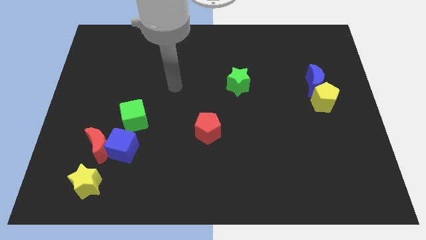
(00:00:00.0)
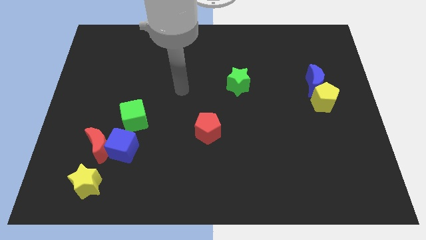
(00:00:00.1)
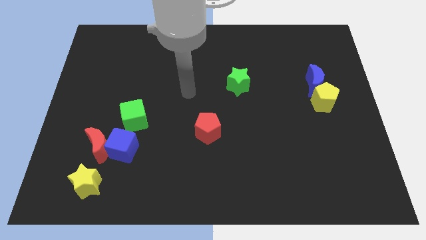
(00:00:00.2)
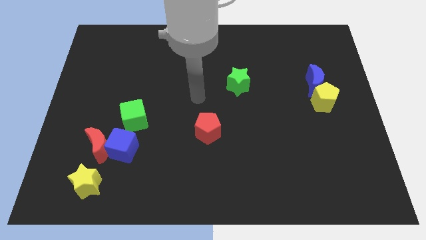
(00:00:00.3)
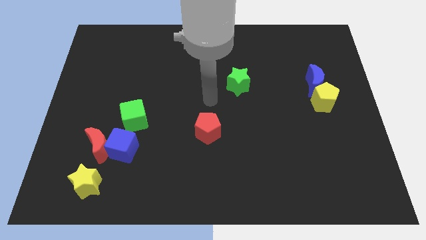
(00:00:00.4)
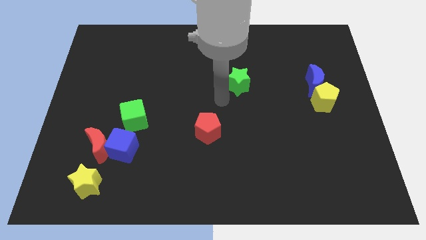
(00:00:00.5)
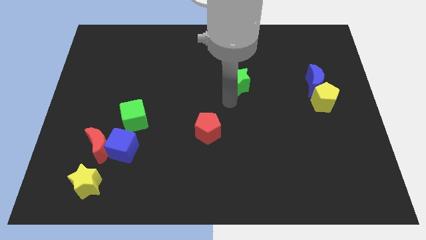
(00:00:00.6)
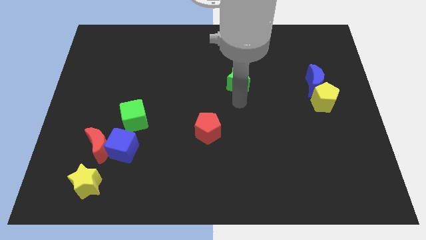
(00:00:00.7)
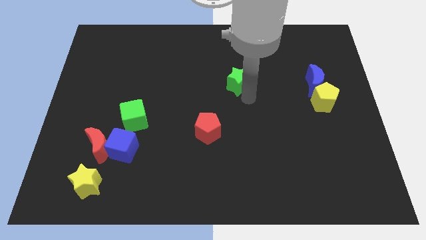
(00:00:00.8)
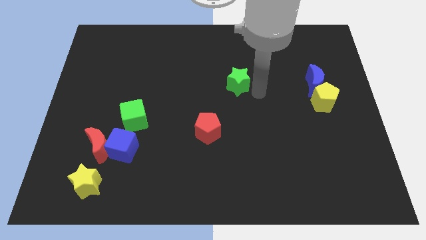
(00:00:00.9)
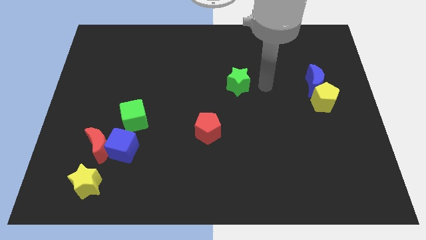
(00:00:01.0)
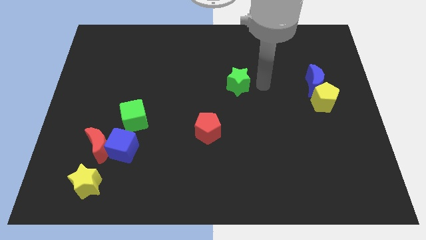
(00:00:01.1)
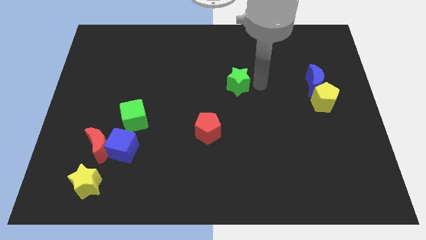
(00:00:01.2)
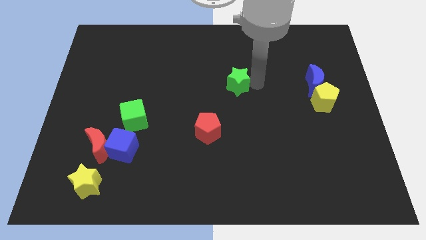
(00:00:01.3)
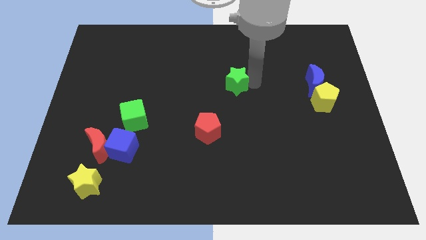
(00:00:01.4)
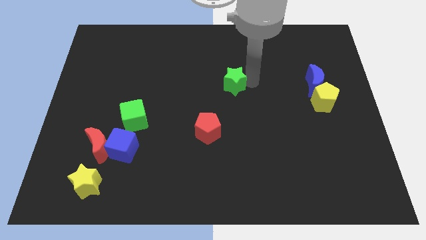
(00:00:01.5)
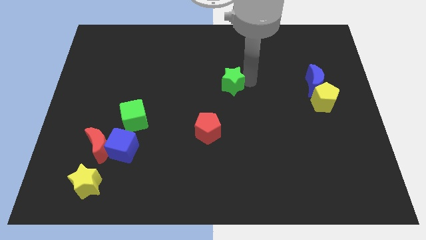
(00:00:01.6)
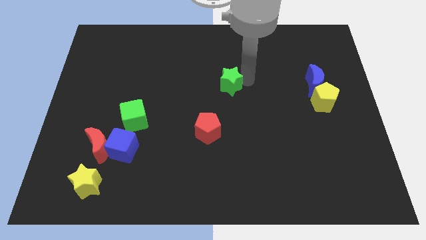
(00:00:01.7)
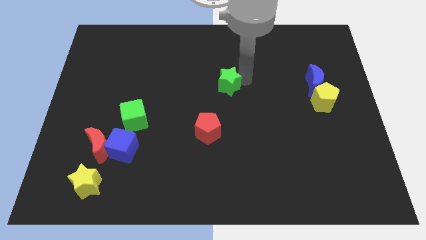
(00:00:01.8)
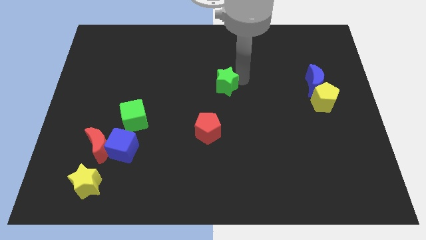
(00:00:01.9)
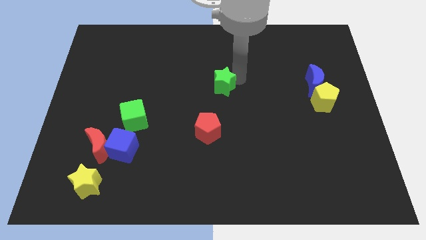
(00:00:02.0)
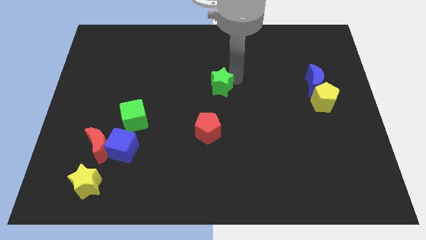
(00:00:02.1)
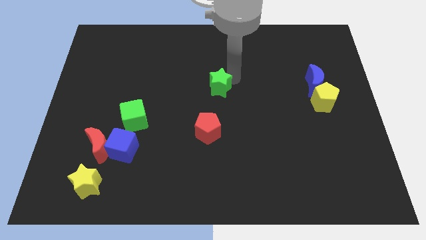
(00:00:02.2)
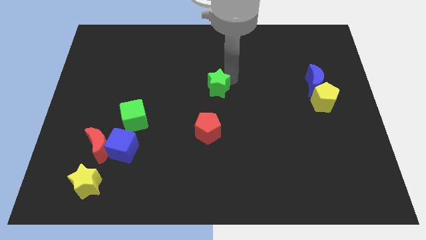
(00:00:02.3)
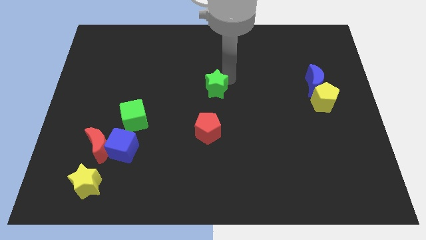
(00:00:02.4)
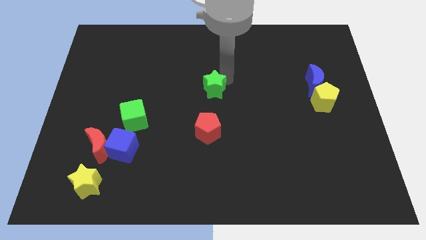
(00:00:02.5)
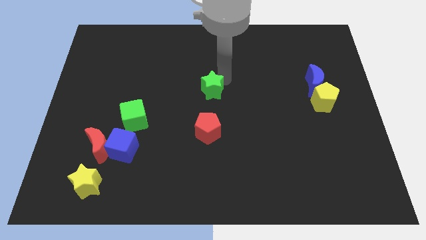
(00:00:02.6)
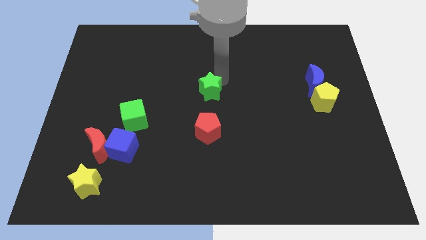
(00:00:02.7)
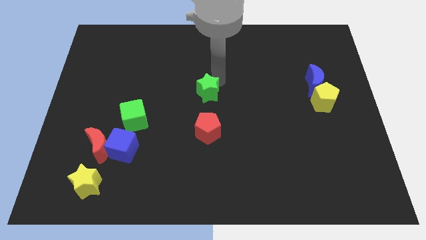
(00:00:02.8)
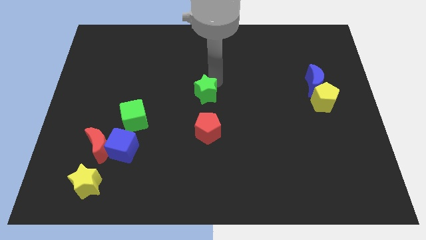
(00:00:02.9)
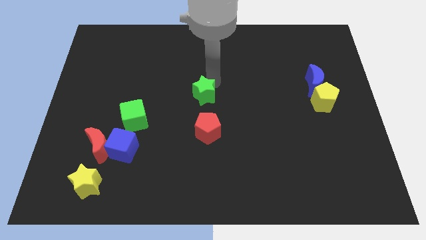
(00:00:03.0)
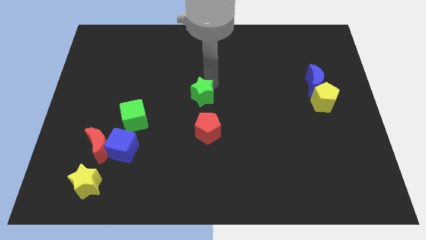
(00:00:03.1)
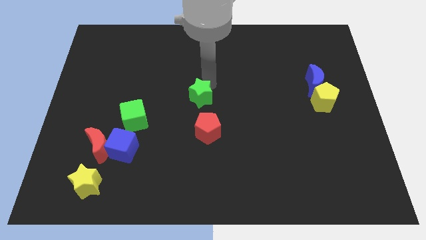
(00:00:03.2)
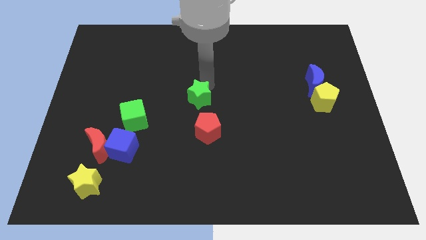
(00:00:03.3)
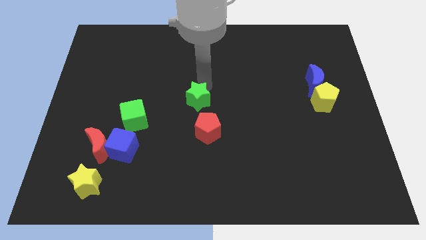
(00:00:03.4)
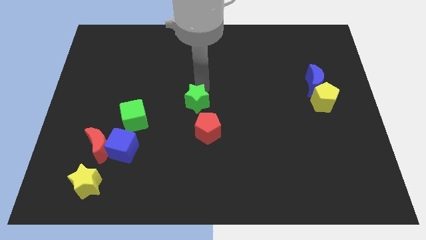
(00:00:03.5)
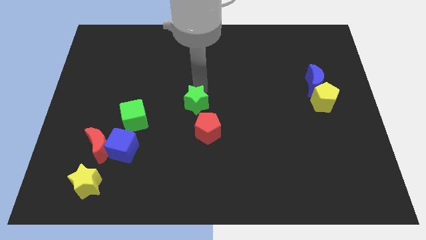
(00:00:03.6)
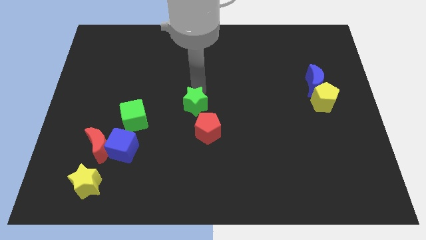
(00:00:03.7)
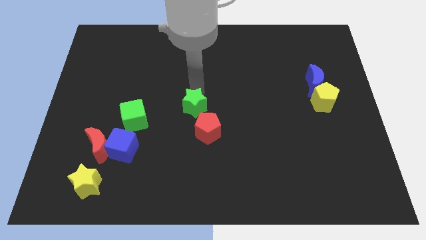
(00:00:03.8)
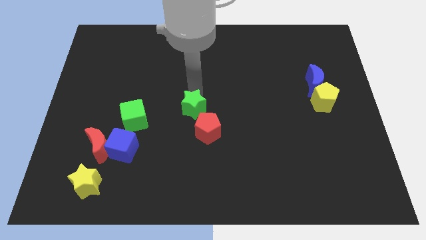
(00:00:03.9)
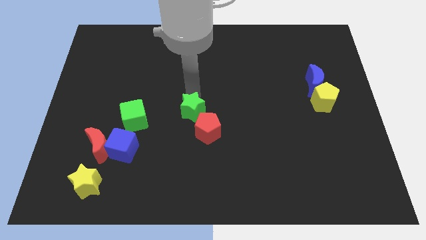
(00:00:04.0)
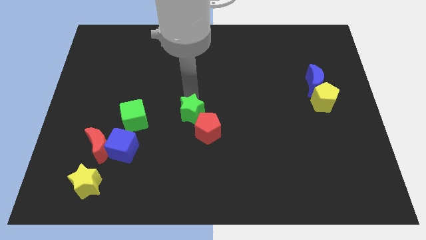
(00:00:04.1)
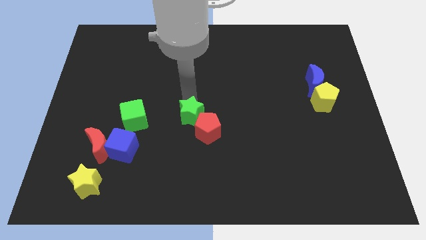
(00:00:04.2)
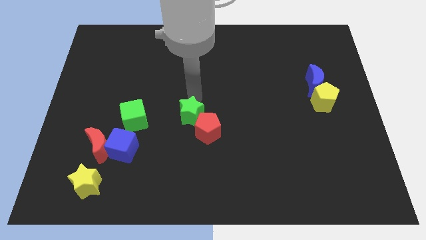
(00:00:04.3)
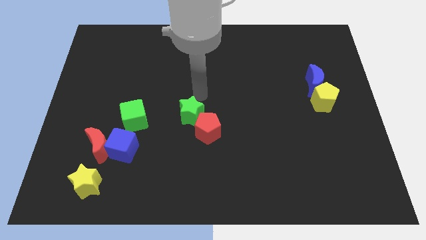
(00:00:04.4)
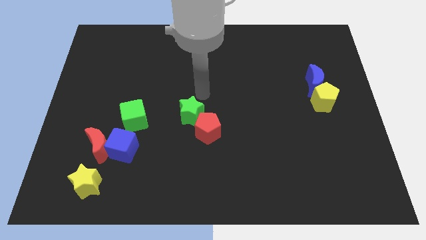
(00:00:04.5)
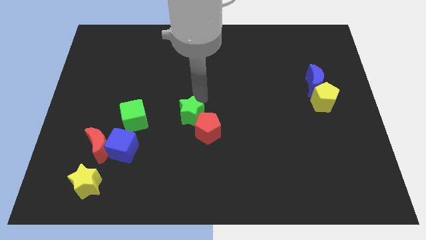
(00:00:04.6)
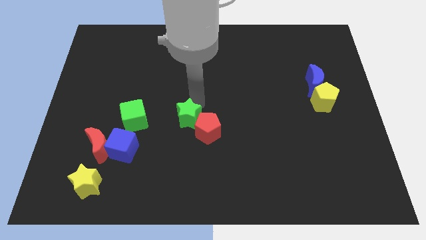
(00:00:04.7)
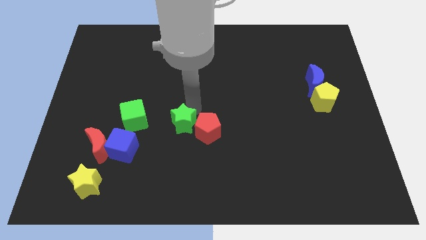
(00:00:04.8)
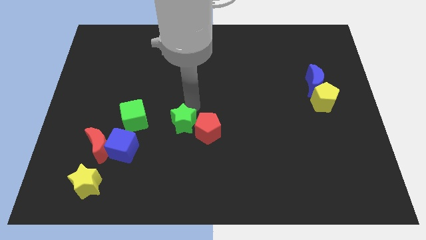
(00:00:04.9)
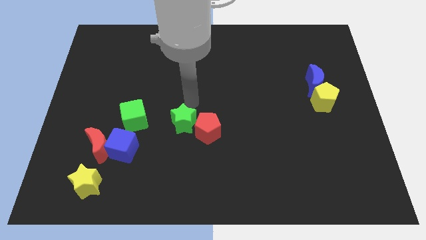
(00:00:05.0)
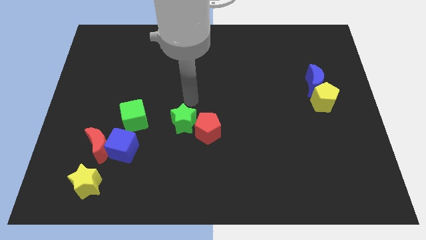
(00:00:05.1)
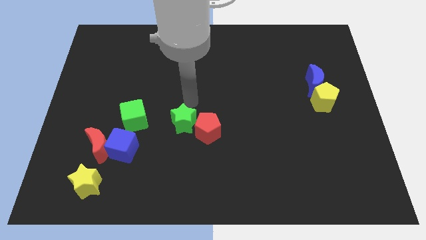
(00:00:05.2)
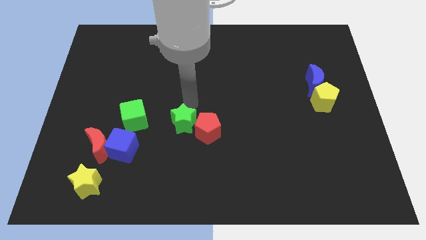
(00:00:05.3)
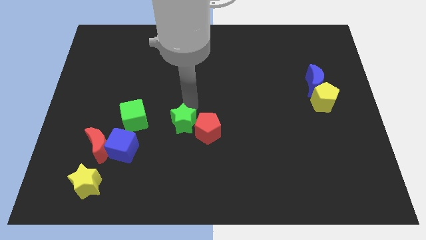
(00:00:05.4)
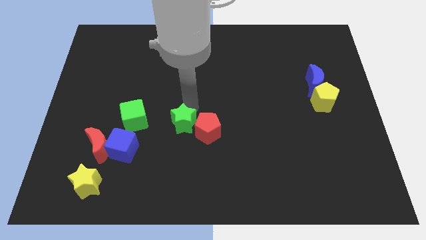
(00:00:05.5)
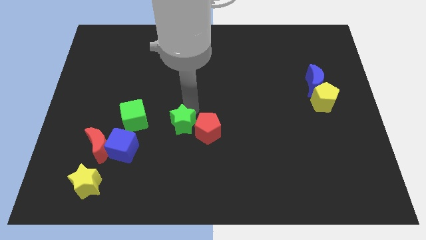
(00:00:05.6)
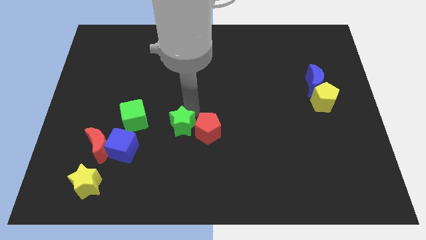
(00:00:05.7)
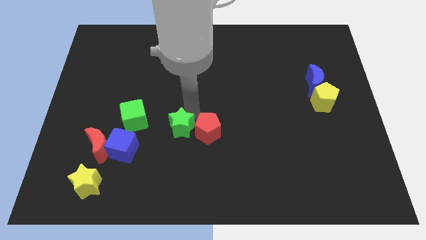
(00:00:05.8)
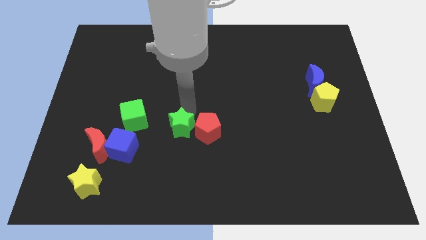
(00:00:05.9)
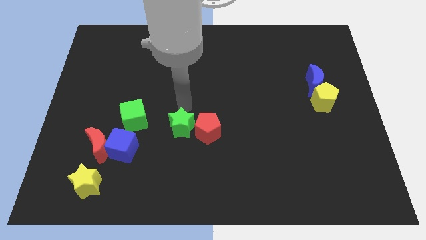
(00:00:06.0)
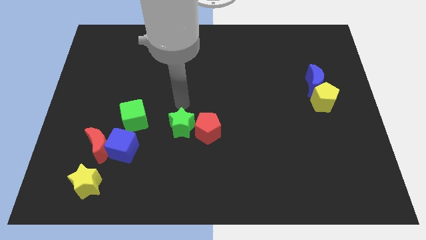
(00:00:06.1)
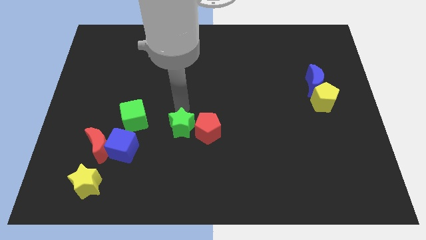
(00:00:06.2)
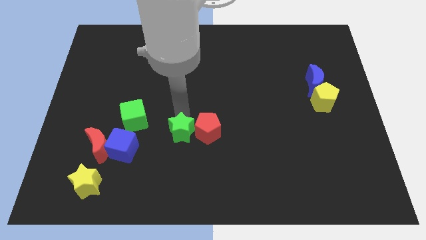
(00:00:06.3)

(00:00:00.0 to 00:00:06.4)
put the green star to the bottom left side of the red pentagon

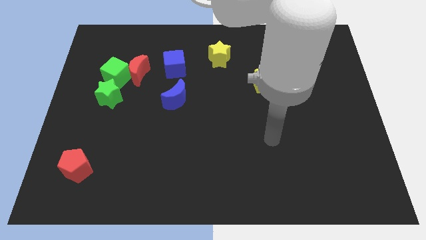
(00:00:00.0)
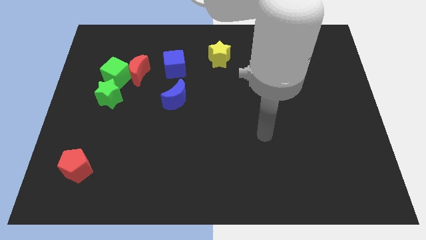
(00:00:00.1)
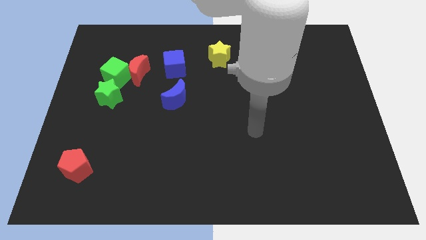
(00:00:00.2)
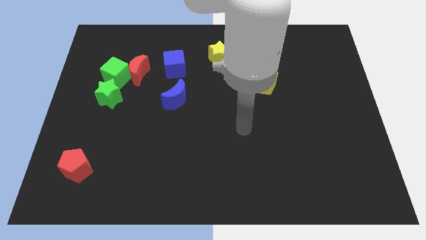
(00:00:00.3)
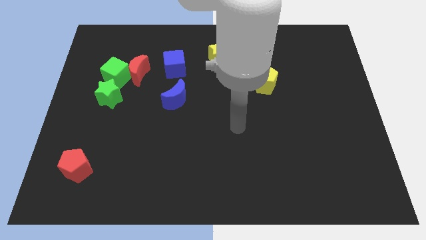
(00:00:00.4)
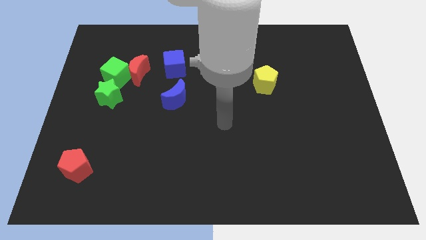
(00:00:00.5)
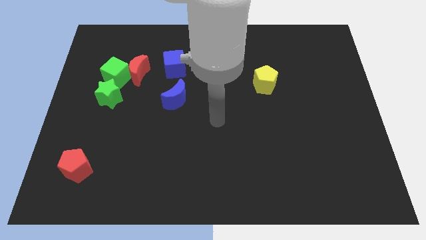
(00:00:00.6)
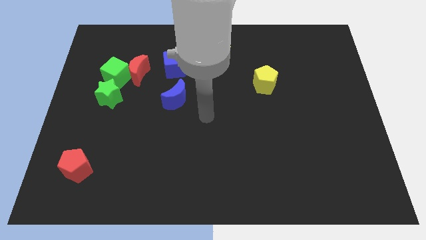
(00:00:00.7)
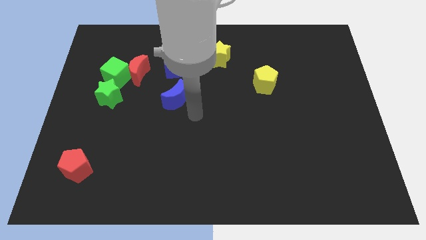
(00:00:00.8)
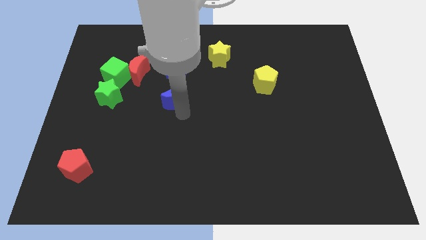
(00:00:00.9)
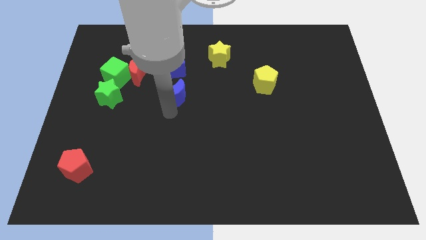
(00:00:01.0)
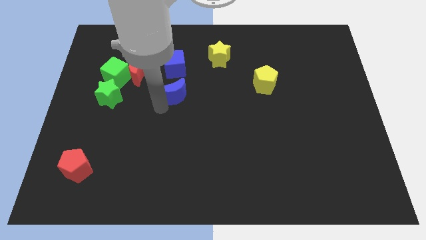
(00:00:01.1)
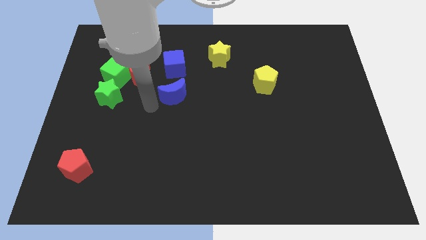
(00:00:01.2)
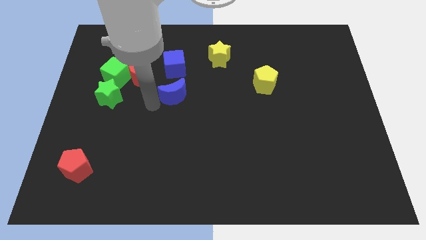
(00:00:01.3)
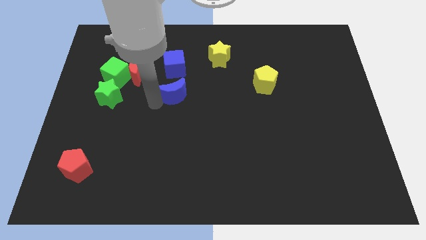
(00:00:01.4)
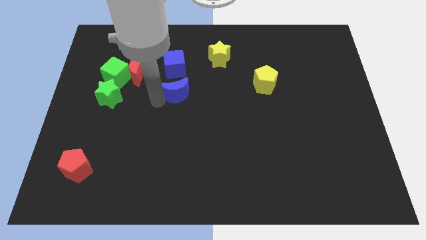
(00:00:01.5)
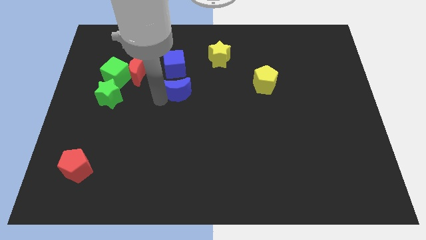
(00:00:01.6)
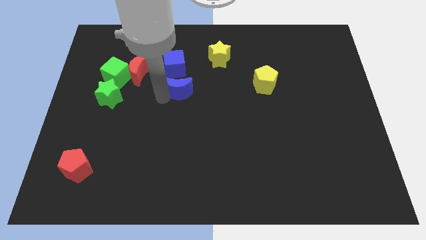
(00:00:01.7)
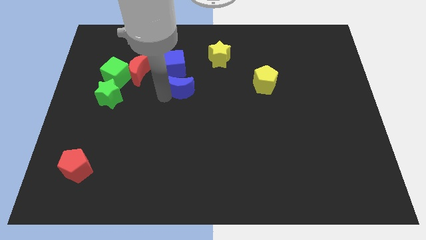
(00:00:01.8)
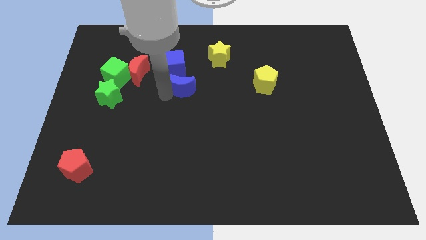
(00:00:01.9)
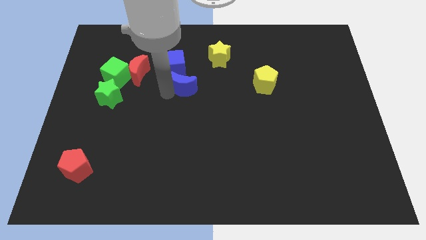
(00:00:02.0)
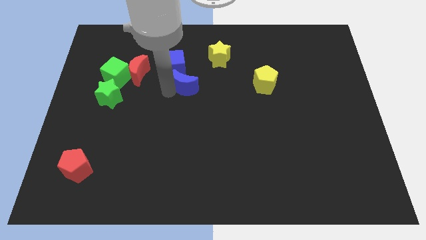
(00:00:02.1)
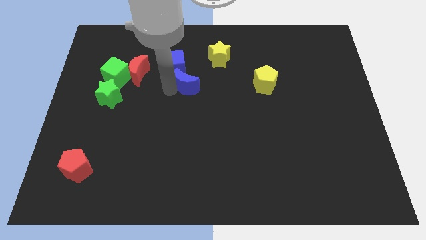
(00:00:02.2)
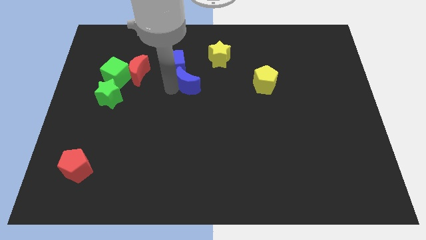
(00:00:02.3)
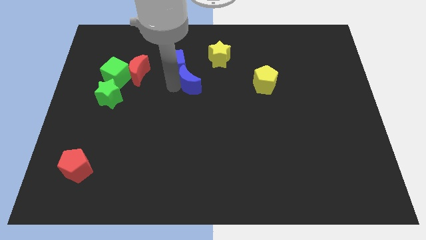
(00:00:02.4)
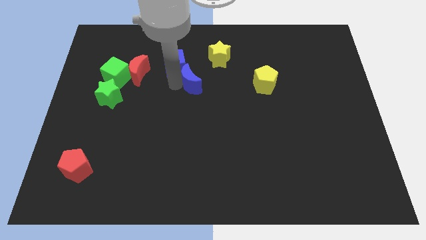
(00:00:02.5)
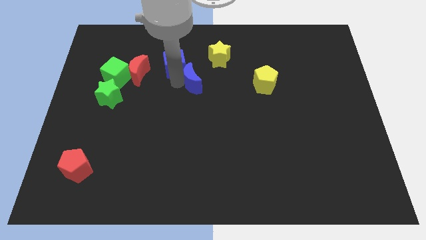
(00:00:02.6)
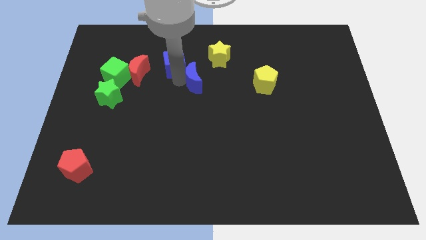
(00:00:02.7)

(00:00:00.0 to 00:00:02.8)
push the blue moon to the right of the blue cube
